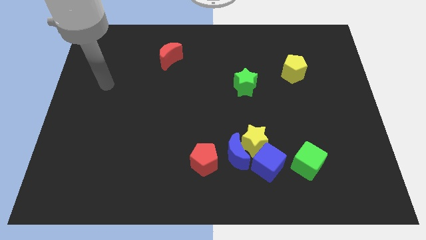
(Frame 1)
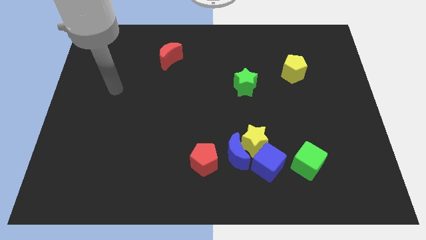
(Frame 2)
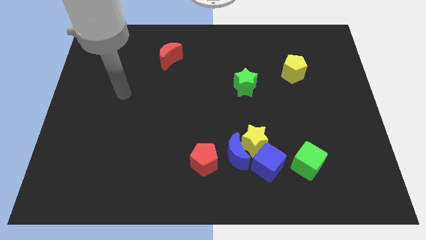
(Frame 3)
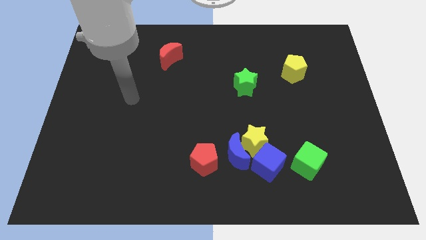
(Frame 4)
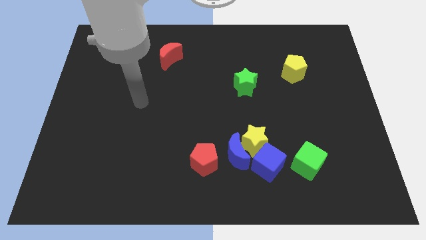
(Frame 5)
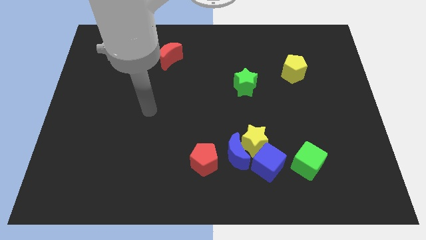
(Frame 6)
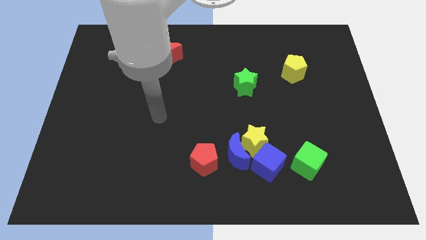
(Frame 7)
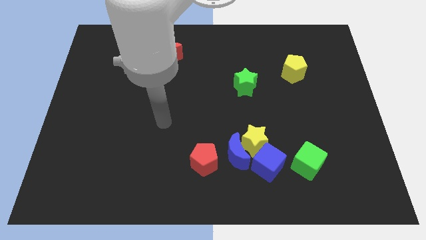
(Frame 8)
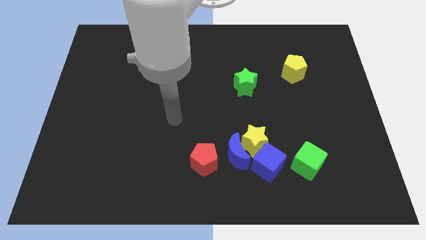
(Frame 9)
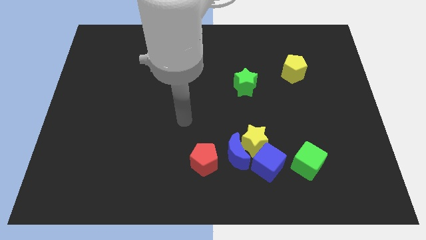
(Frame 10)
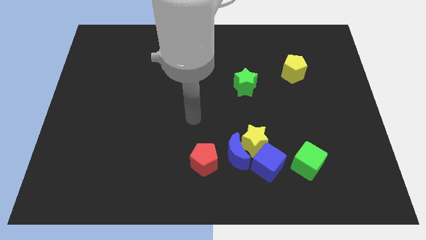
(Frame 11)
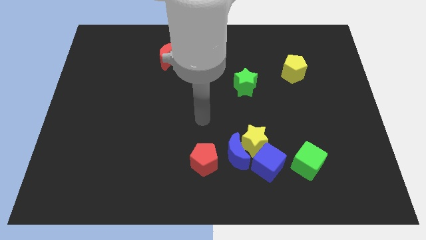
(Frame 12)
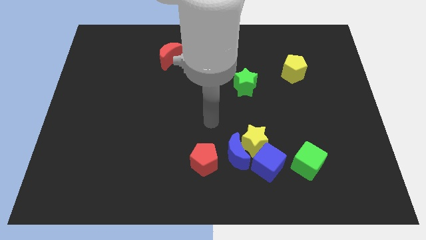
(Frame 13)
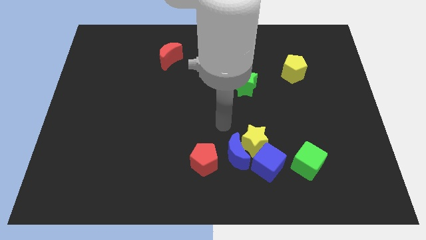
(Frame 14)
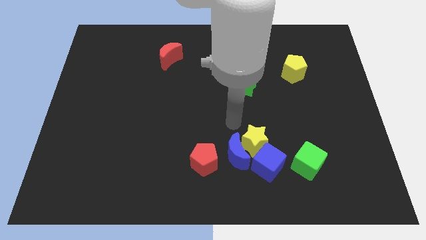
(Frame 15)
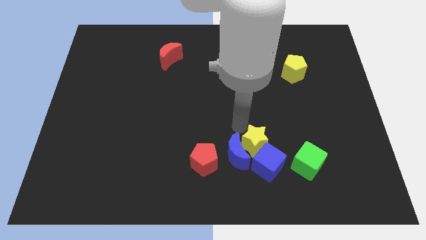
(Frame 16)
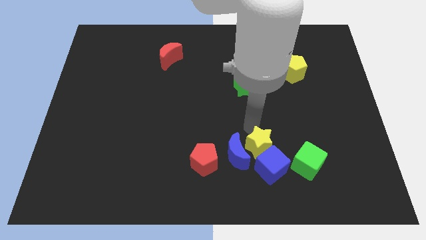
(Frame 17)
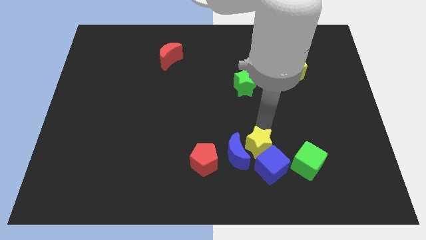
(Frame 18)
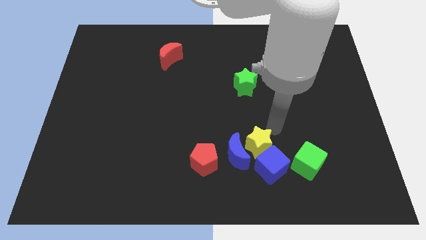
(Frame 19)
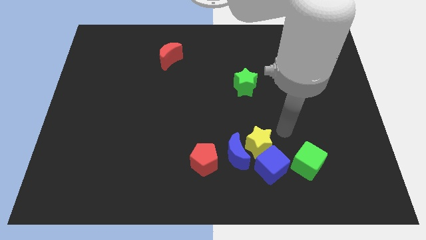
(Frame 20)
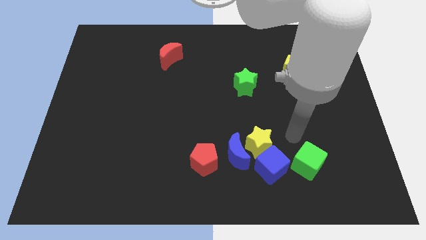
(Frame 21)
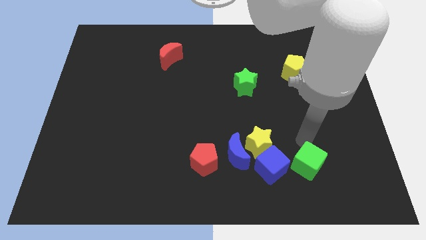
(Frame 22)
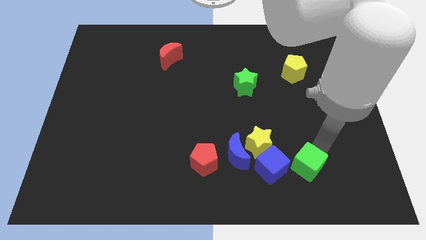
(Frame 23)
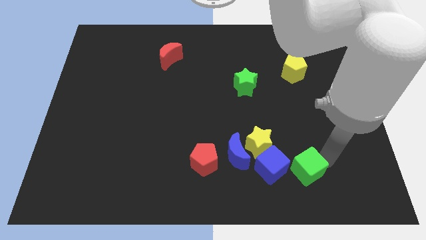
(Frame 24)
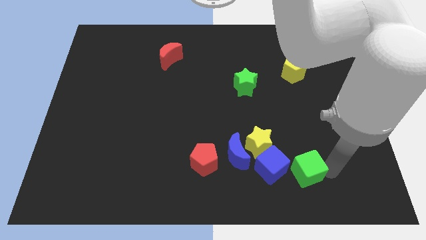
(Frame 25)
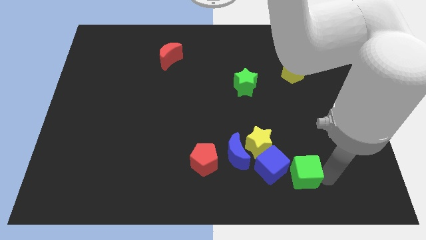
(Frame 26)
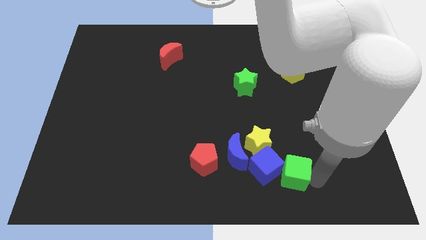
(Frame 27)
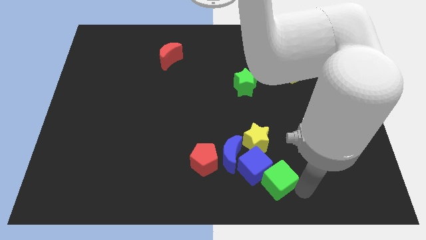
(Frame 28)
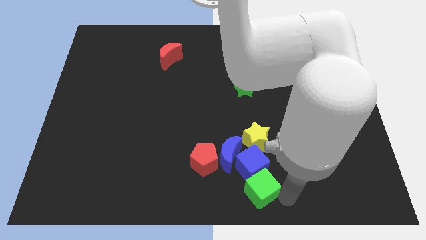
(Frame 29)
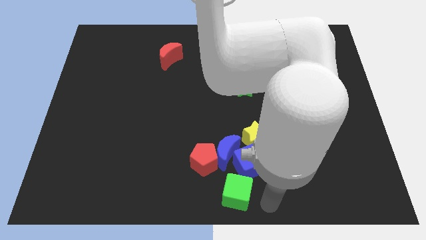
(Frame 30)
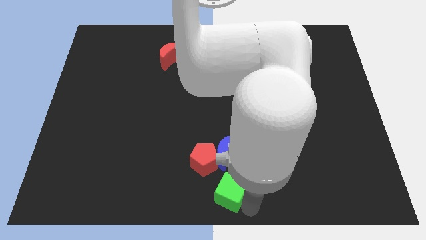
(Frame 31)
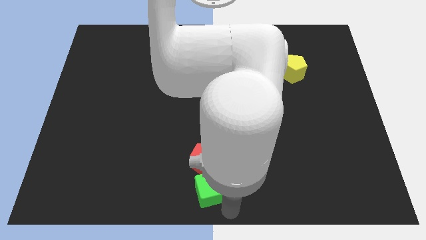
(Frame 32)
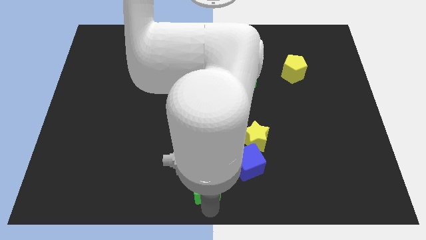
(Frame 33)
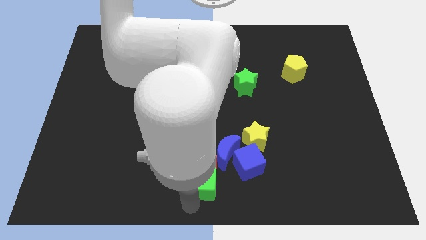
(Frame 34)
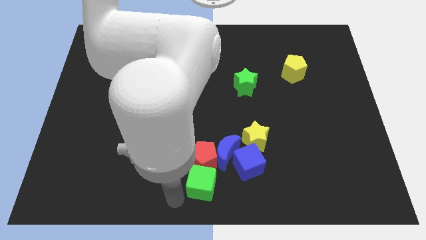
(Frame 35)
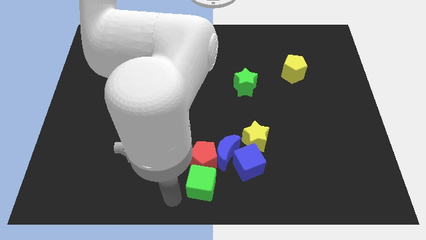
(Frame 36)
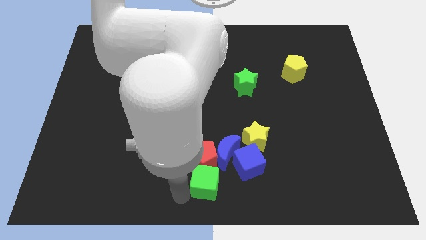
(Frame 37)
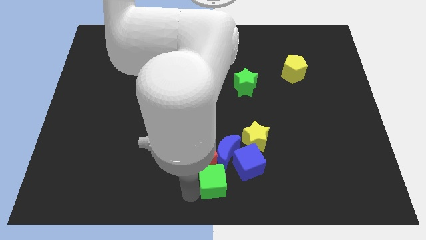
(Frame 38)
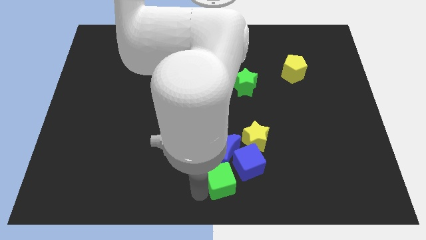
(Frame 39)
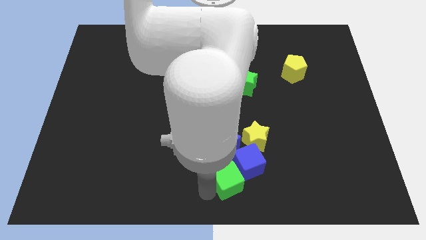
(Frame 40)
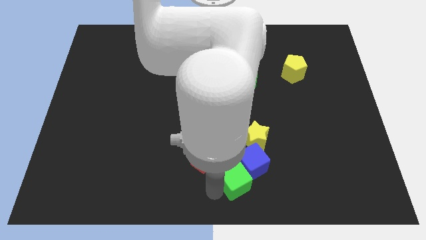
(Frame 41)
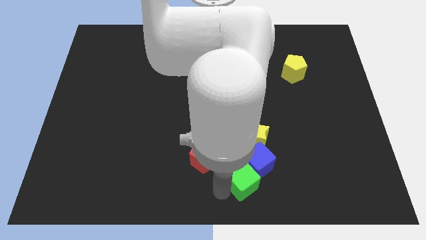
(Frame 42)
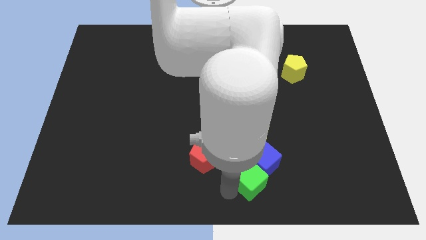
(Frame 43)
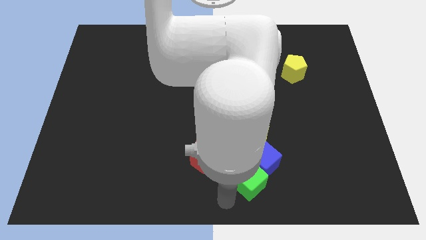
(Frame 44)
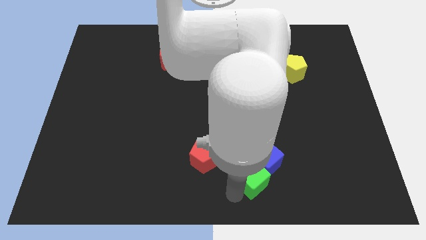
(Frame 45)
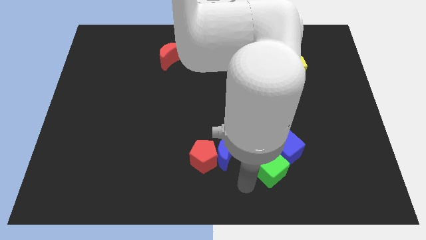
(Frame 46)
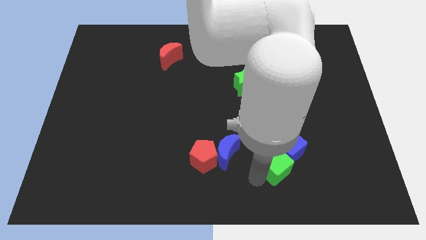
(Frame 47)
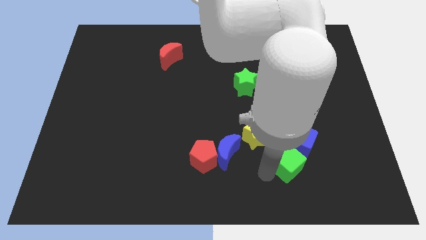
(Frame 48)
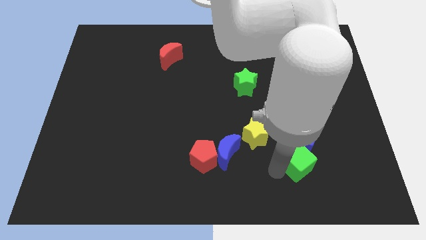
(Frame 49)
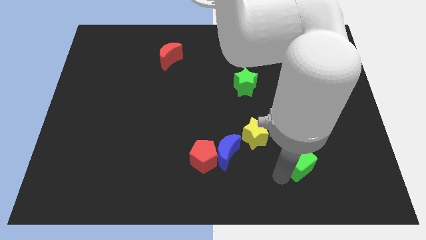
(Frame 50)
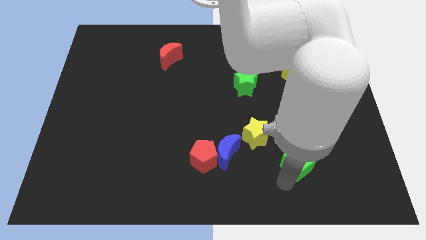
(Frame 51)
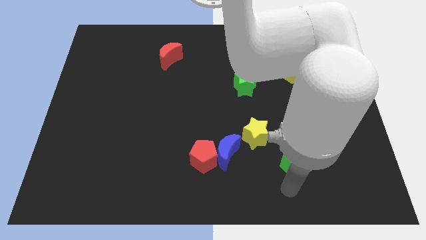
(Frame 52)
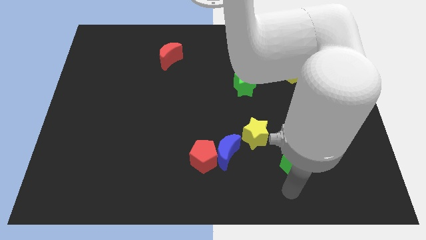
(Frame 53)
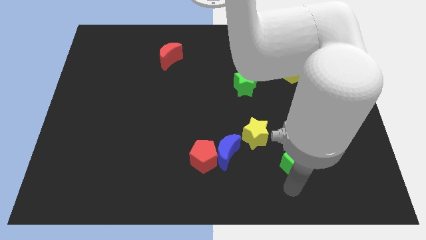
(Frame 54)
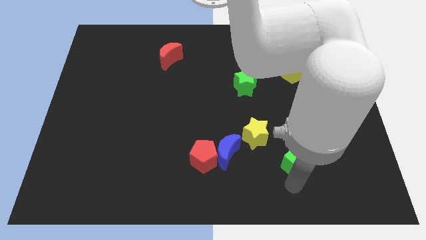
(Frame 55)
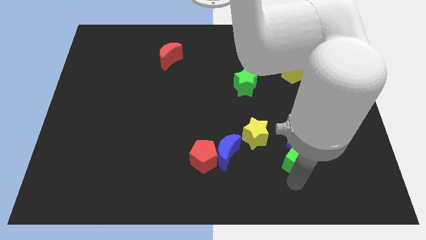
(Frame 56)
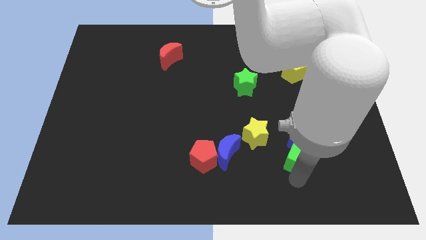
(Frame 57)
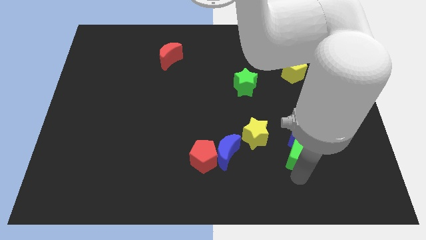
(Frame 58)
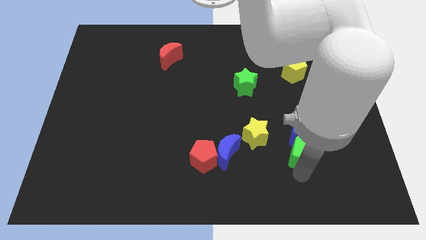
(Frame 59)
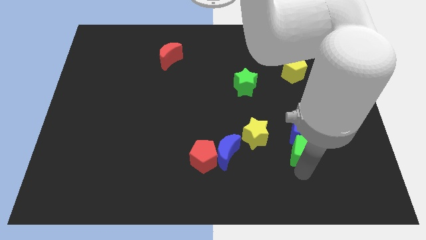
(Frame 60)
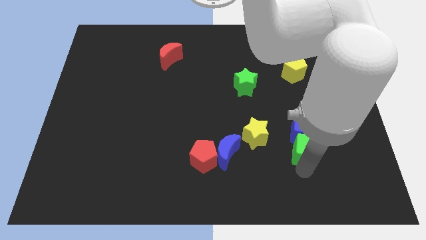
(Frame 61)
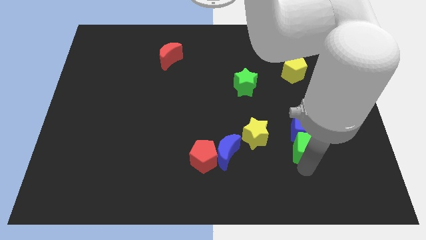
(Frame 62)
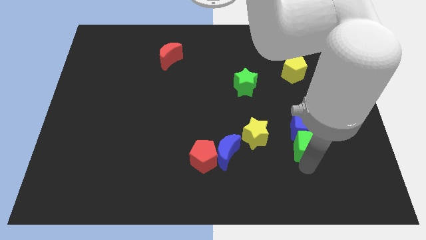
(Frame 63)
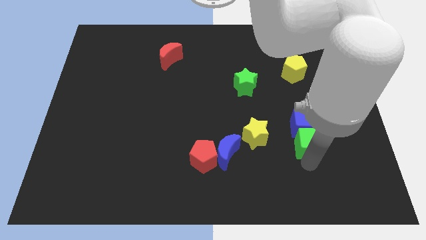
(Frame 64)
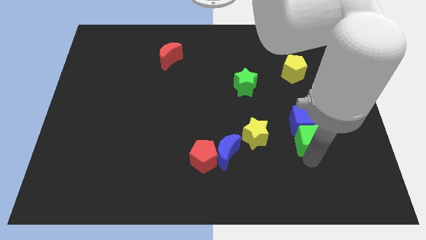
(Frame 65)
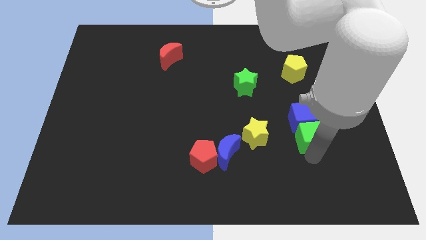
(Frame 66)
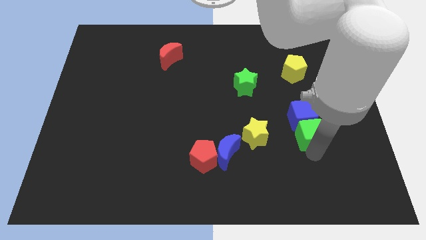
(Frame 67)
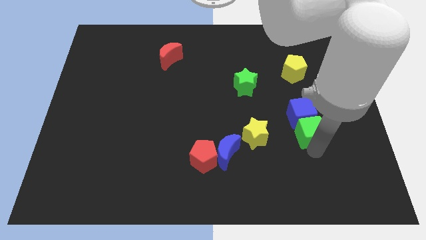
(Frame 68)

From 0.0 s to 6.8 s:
slide the green cube up a little bit

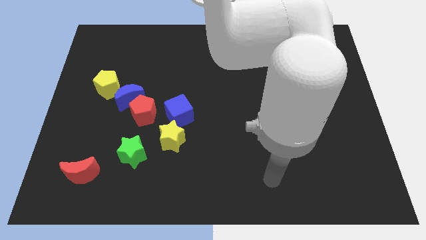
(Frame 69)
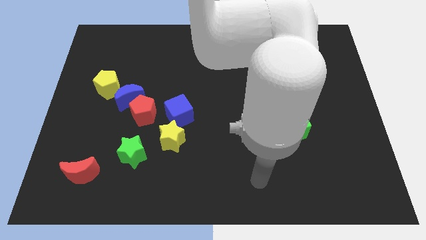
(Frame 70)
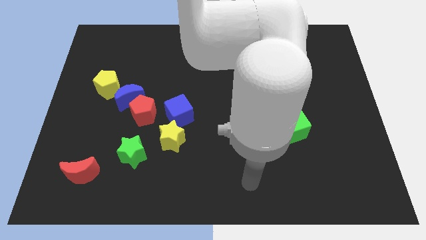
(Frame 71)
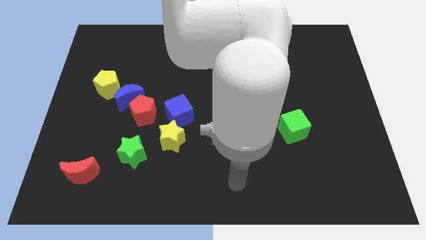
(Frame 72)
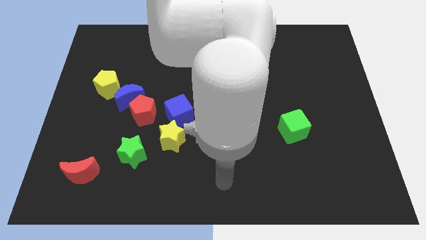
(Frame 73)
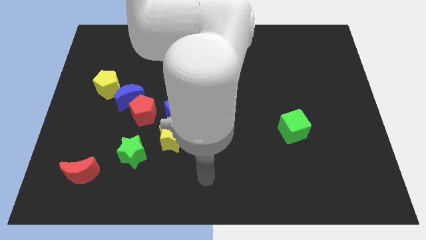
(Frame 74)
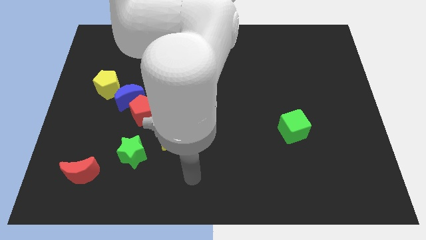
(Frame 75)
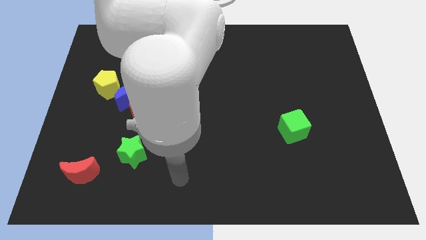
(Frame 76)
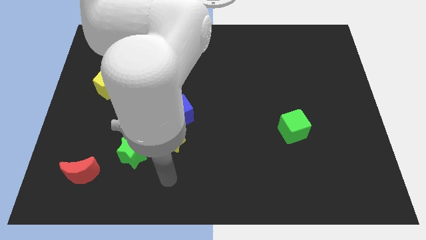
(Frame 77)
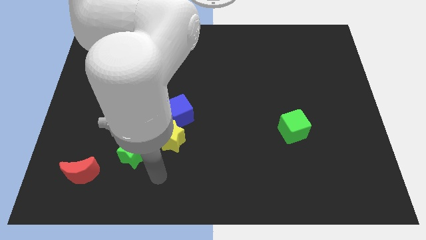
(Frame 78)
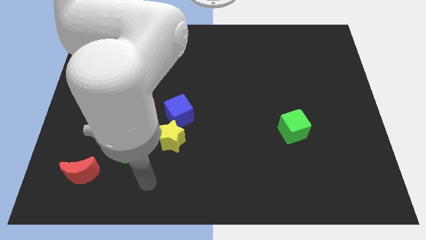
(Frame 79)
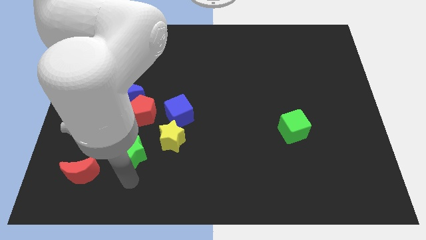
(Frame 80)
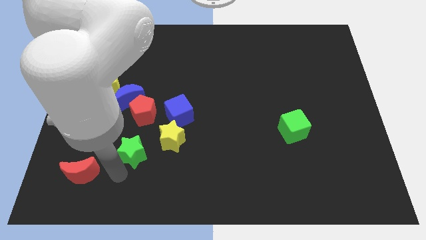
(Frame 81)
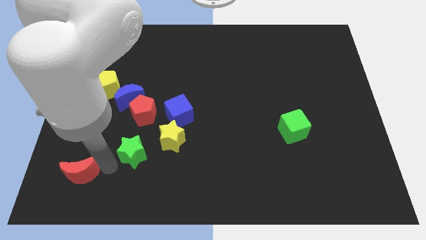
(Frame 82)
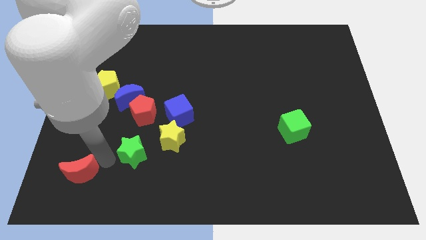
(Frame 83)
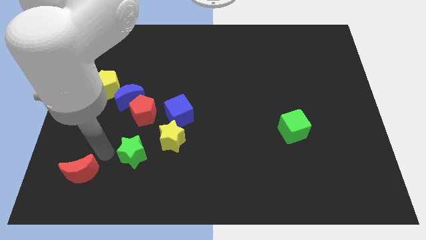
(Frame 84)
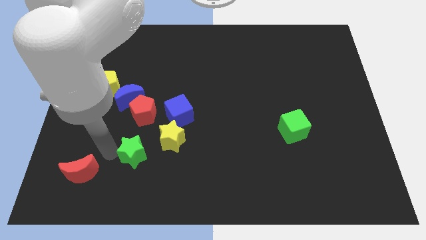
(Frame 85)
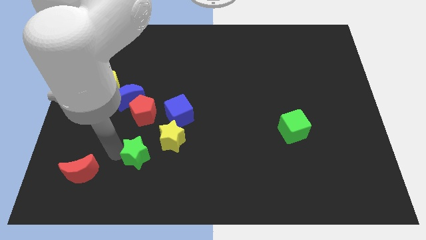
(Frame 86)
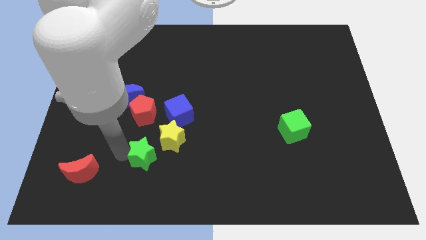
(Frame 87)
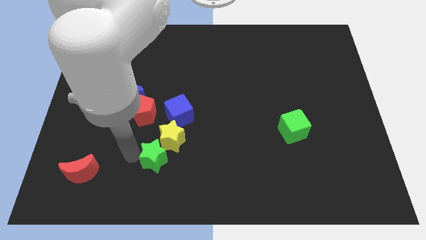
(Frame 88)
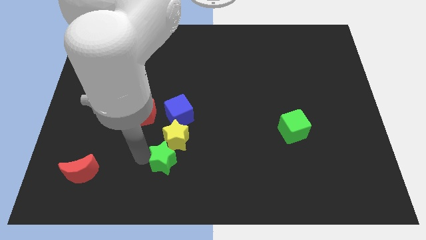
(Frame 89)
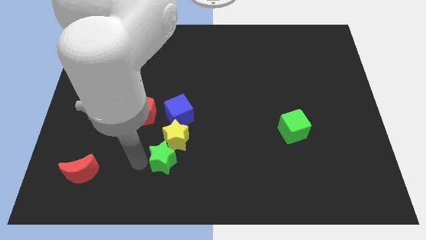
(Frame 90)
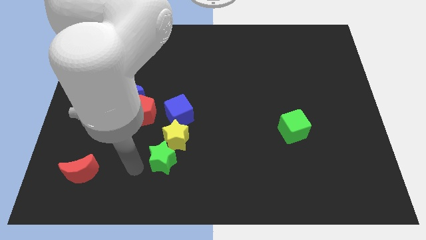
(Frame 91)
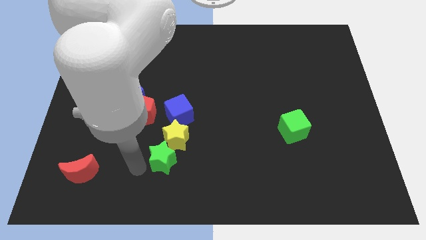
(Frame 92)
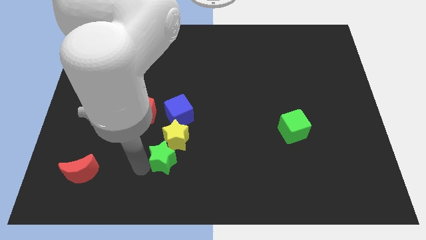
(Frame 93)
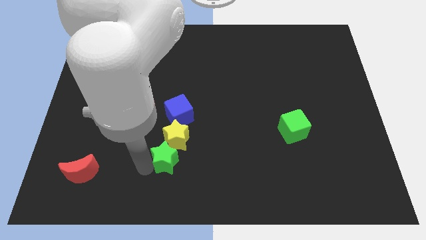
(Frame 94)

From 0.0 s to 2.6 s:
slide the green star somewhat to the right
